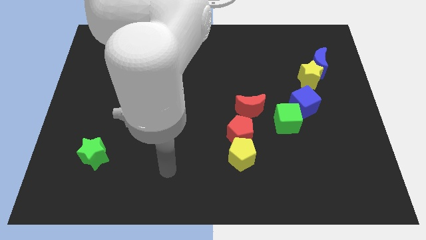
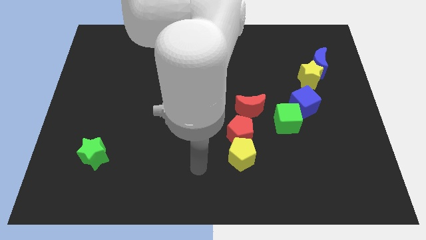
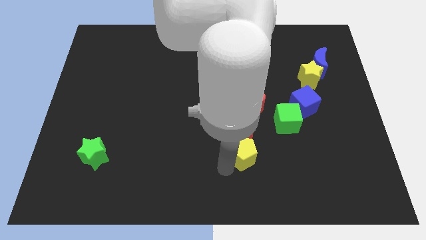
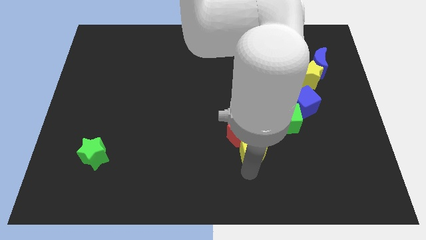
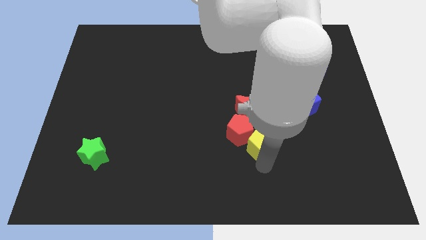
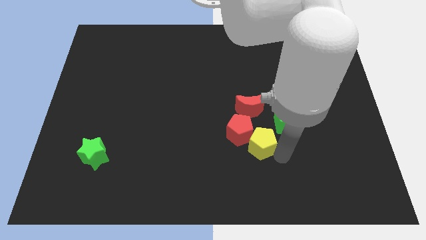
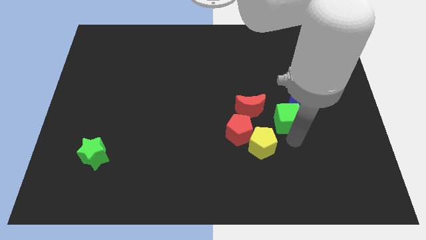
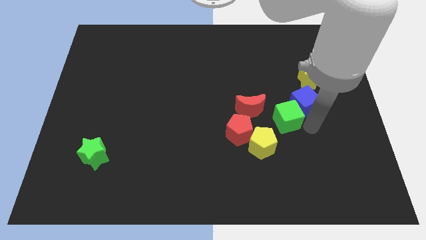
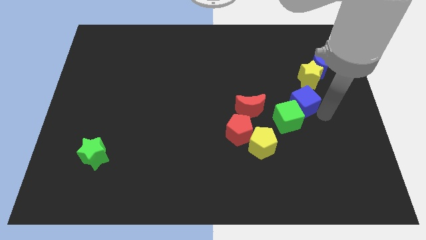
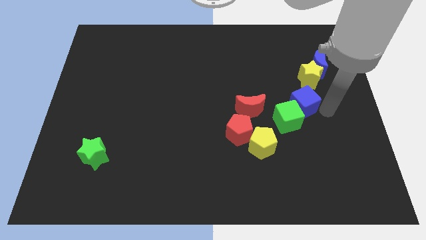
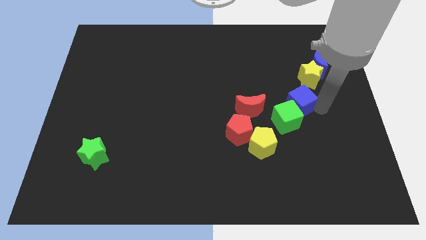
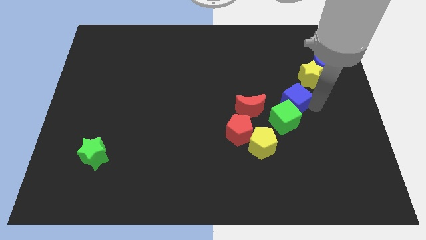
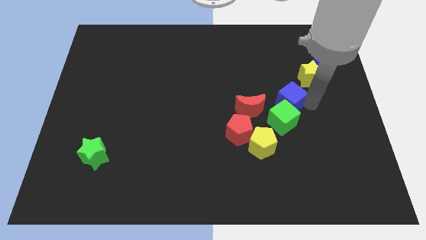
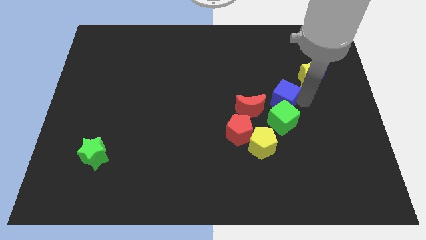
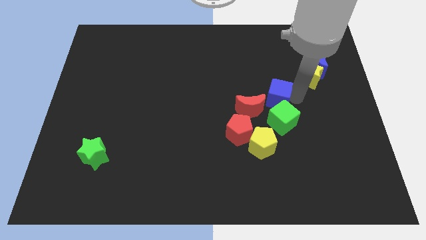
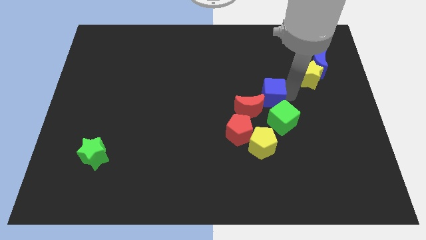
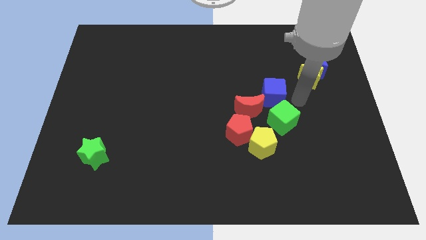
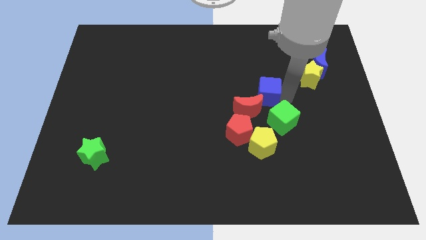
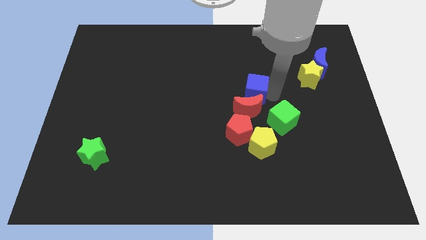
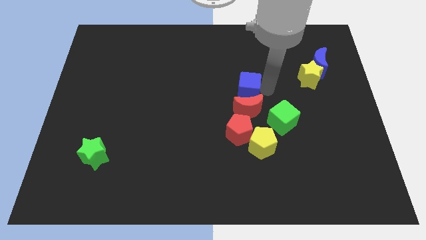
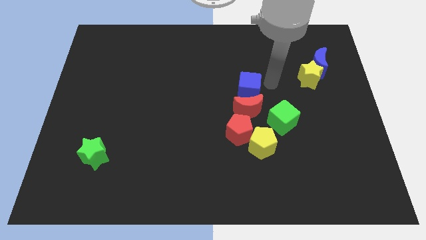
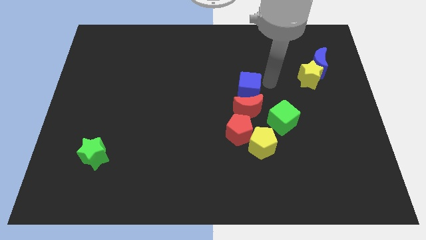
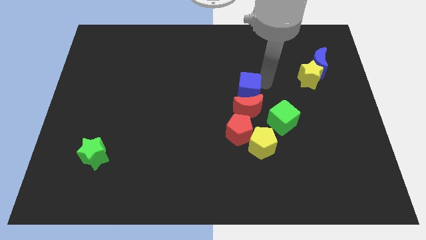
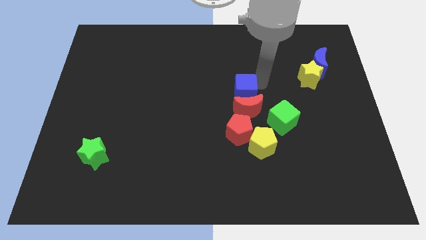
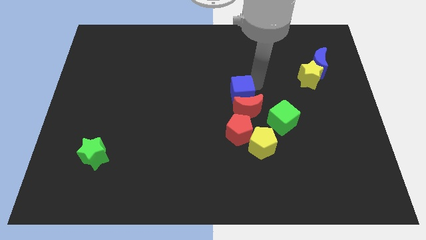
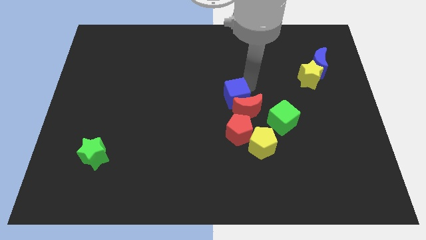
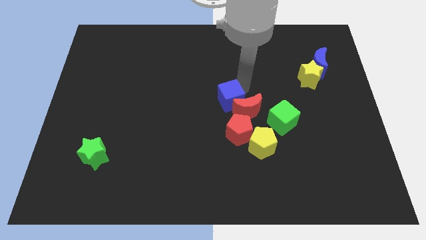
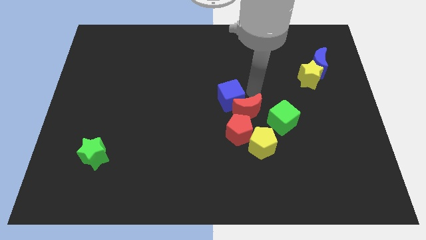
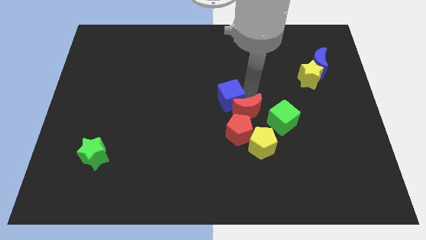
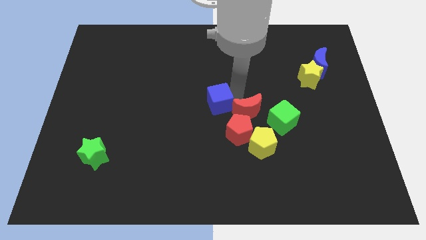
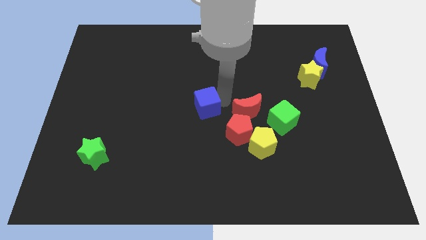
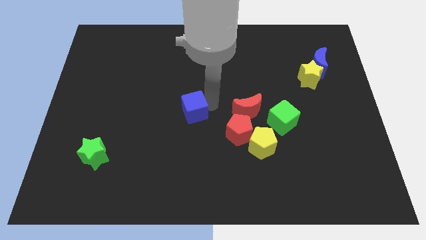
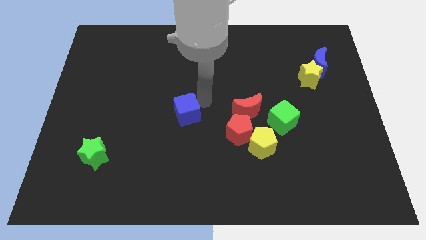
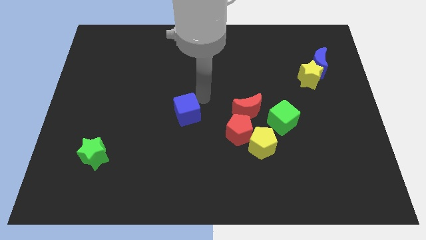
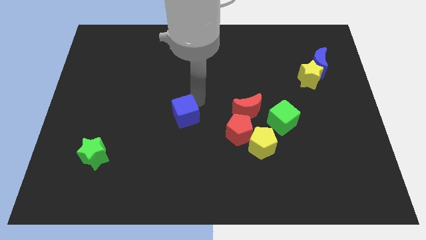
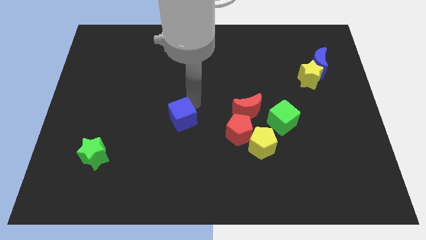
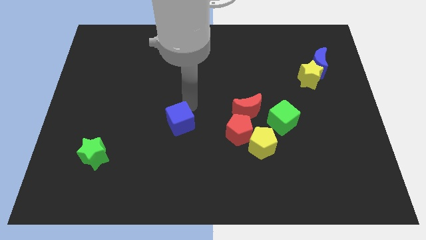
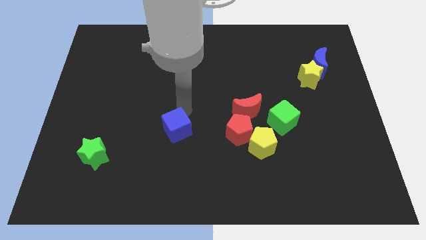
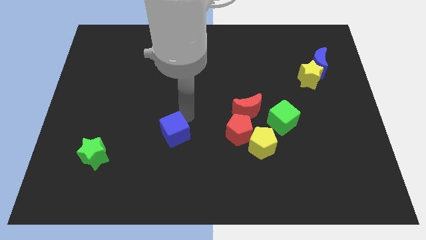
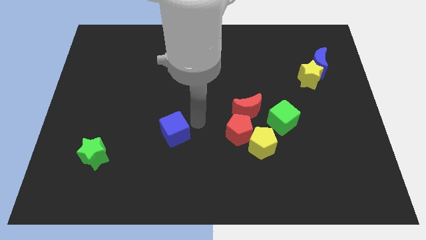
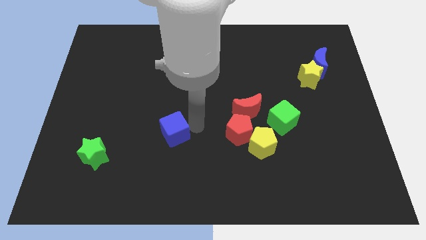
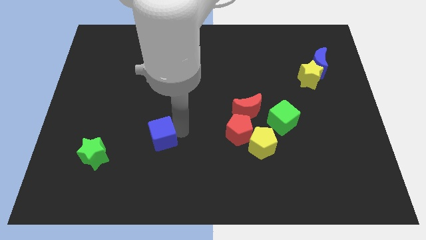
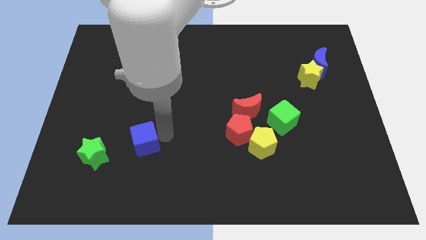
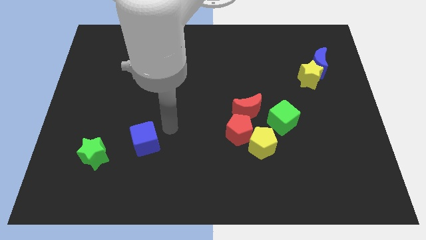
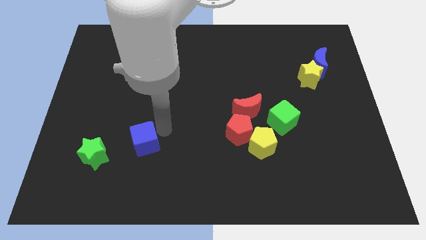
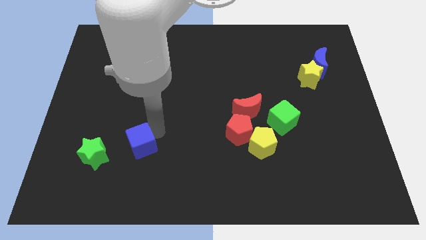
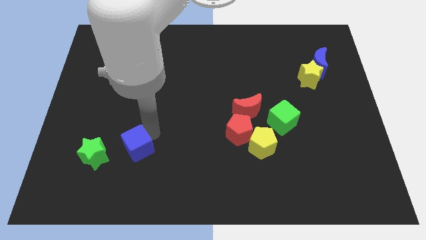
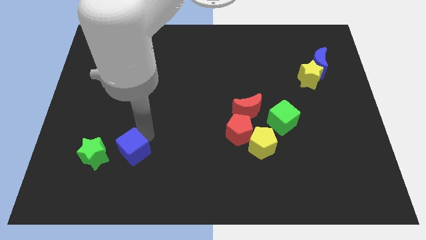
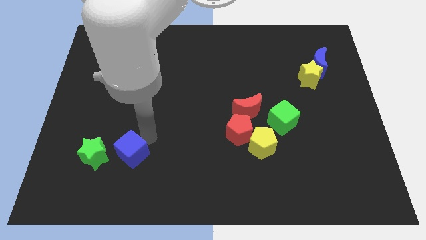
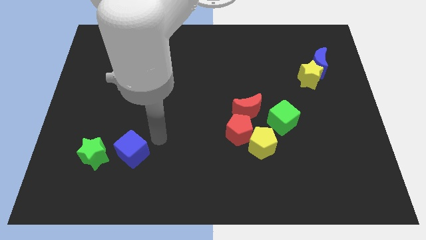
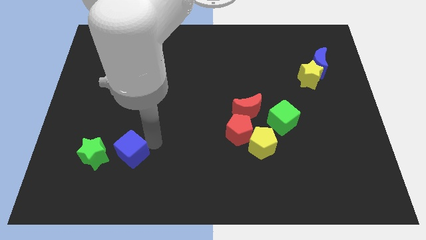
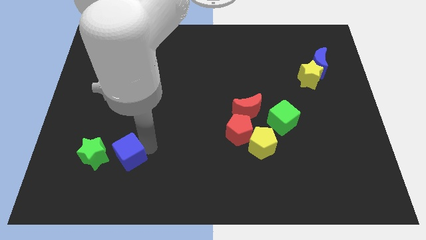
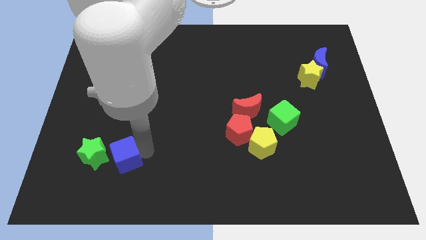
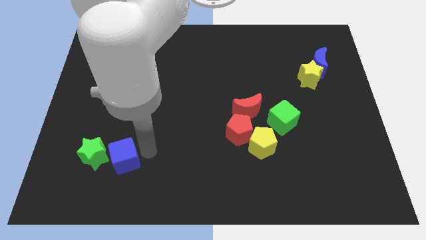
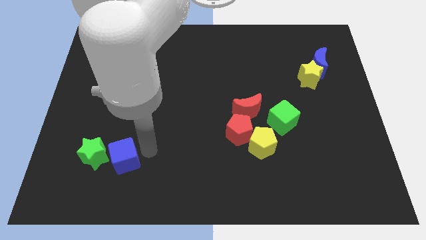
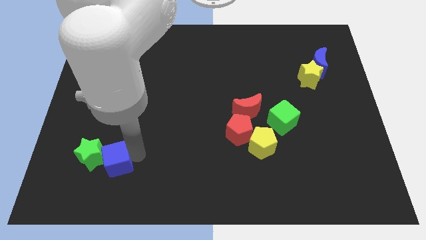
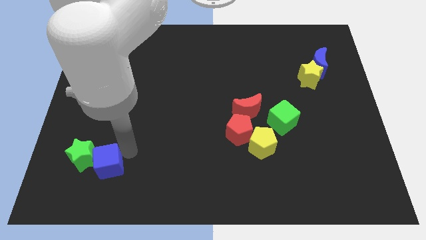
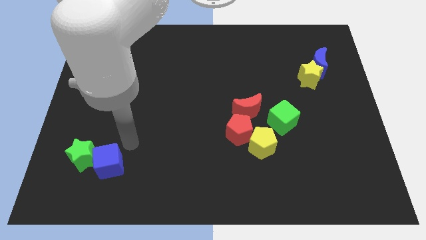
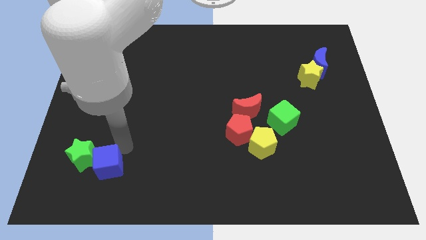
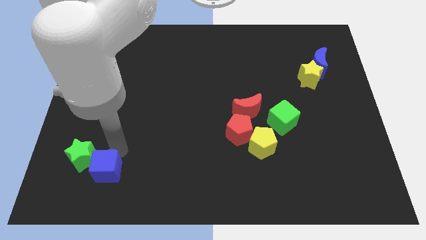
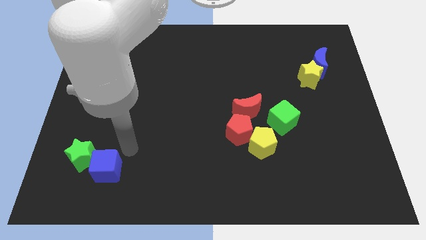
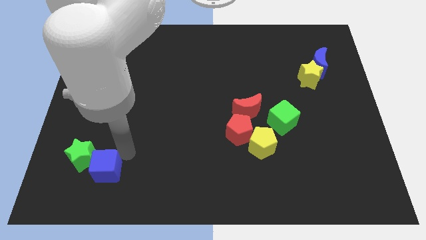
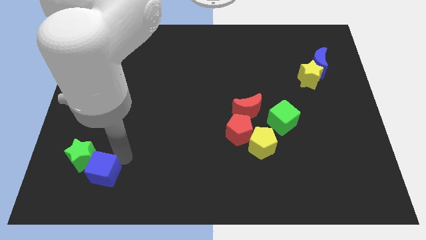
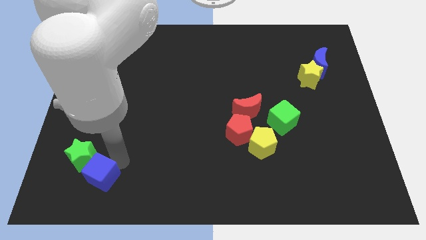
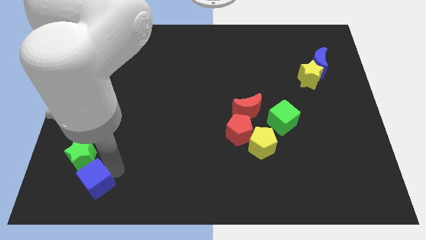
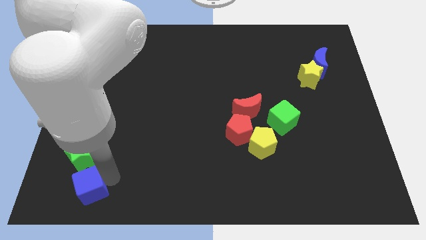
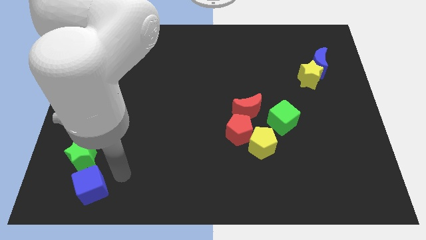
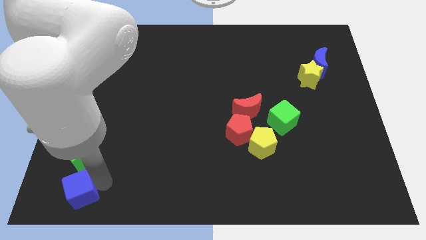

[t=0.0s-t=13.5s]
slide the blue cube to the bottom left of the board
